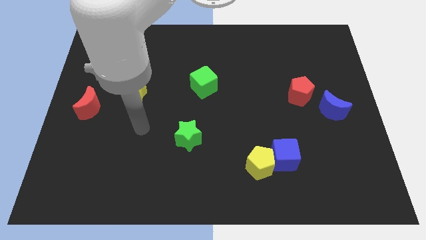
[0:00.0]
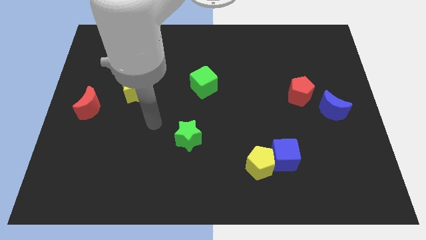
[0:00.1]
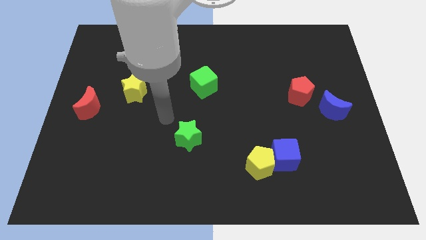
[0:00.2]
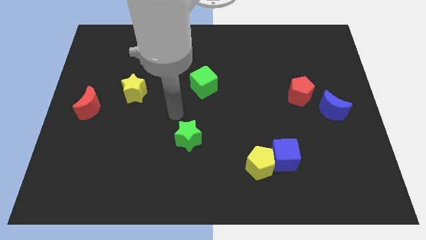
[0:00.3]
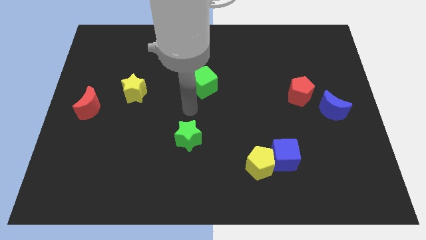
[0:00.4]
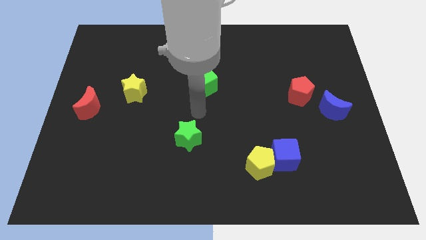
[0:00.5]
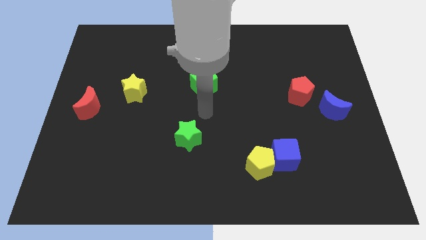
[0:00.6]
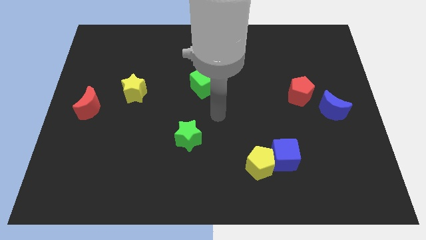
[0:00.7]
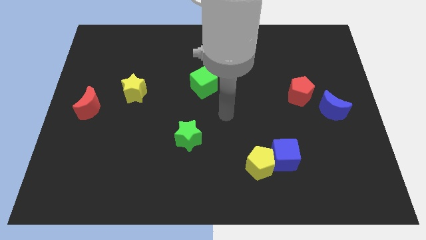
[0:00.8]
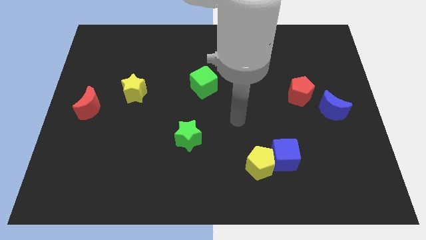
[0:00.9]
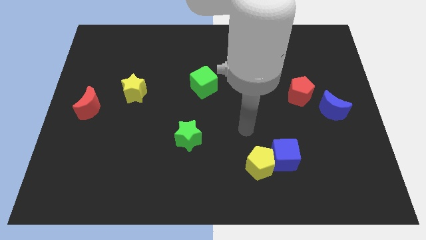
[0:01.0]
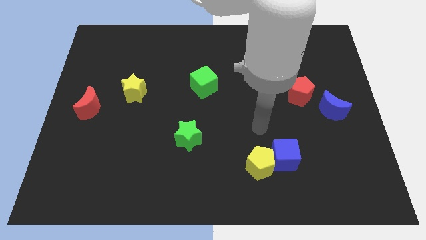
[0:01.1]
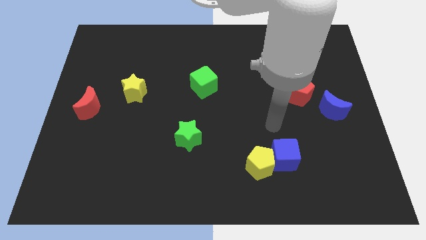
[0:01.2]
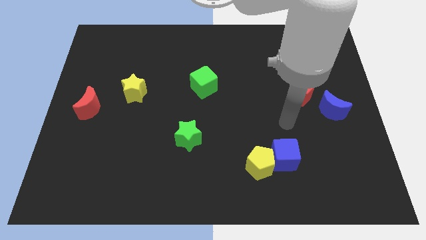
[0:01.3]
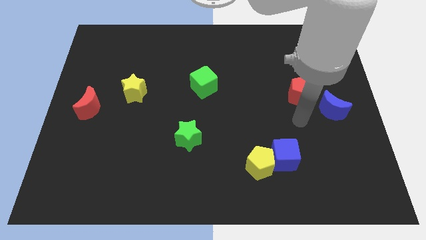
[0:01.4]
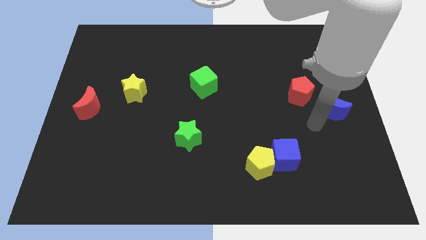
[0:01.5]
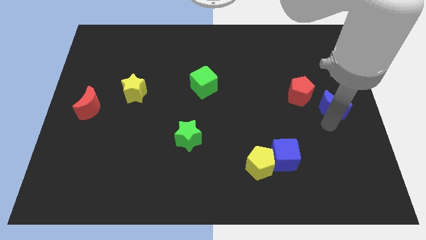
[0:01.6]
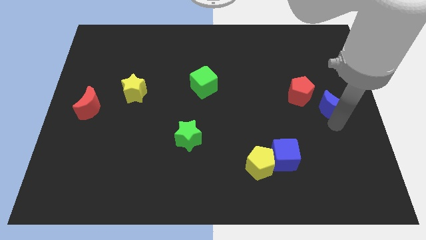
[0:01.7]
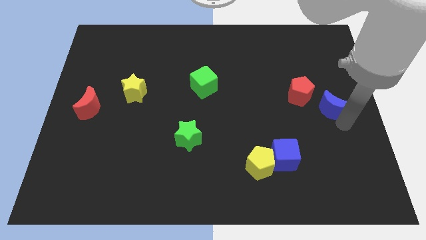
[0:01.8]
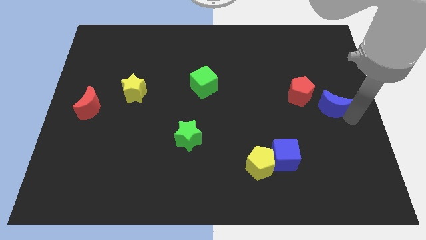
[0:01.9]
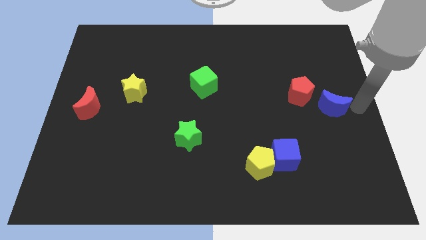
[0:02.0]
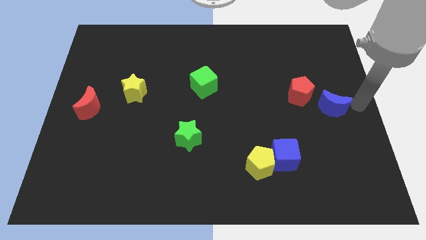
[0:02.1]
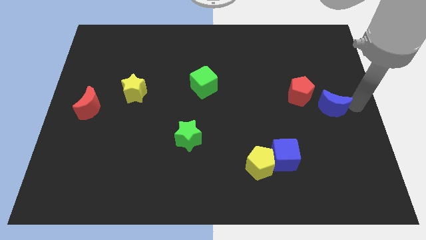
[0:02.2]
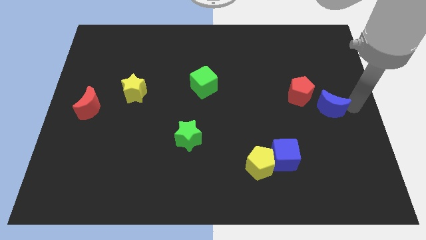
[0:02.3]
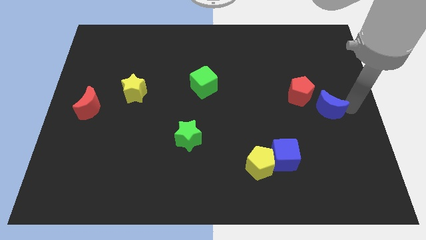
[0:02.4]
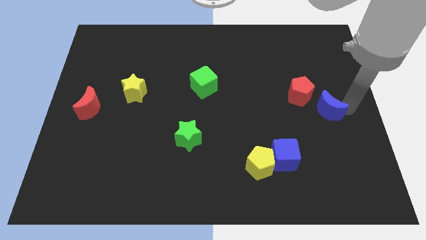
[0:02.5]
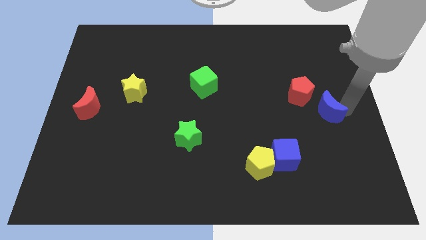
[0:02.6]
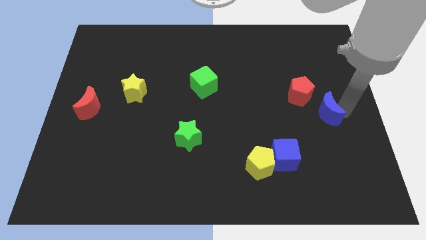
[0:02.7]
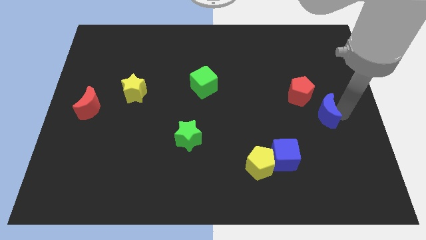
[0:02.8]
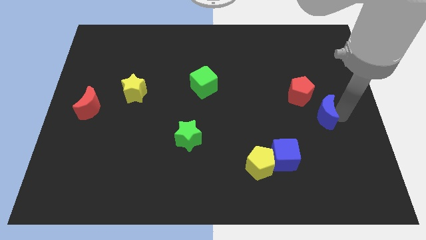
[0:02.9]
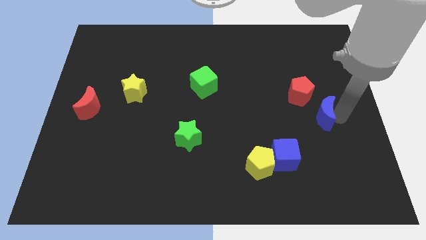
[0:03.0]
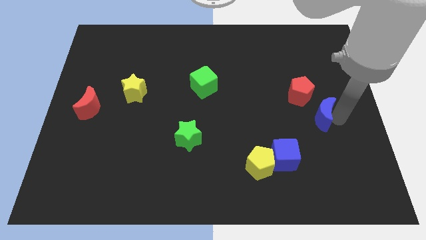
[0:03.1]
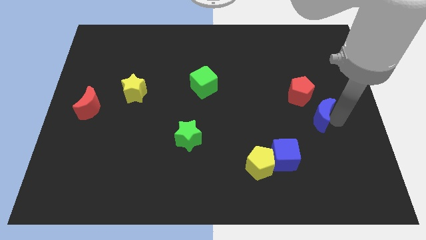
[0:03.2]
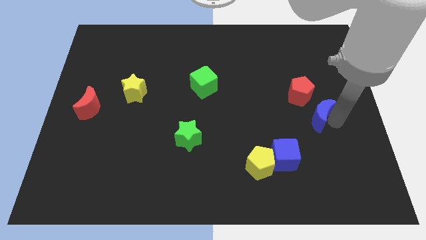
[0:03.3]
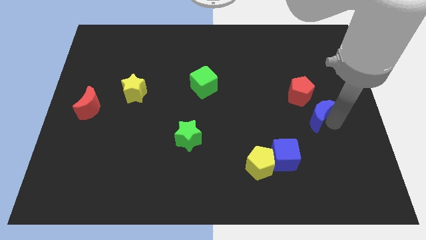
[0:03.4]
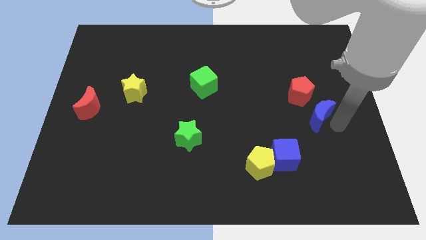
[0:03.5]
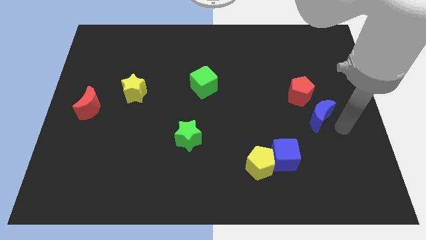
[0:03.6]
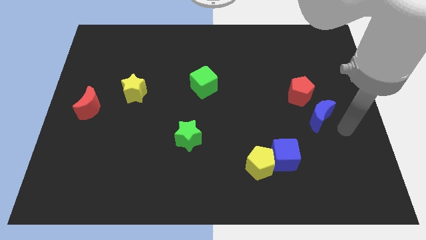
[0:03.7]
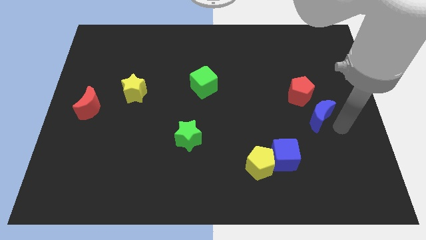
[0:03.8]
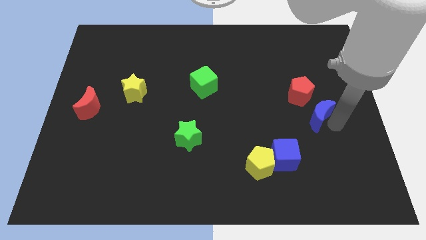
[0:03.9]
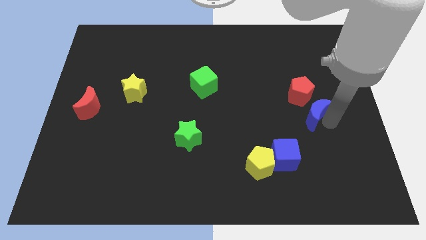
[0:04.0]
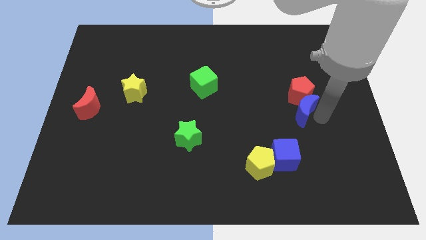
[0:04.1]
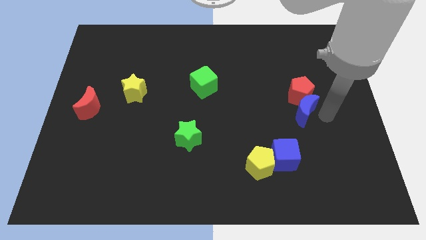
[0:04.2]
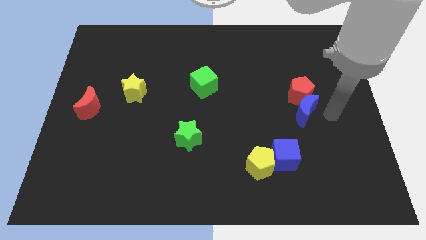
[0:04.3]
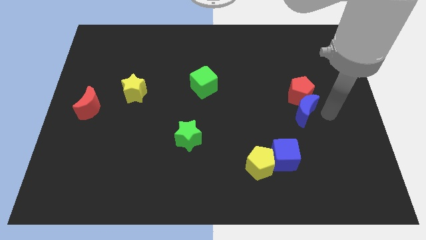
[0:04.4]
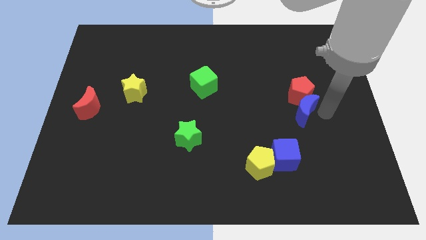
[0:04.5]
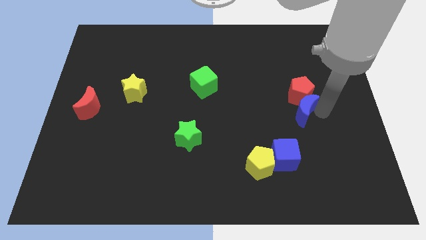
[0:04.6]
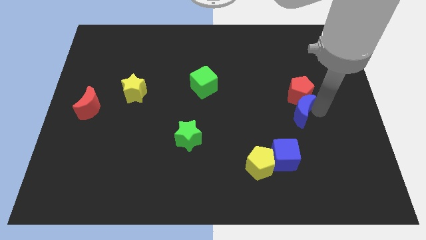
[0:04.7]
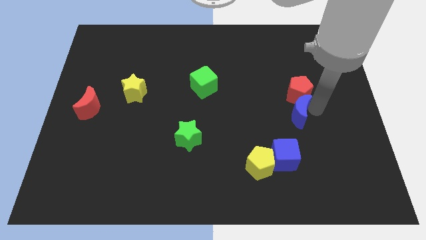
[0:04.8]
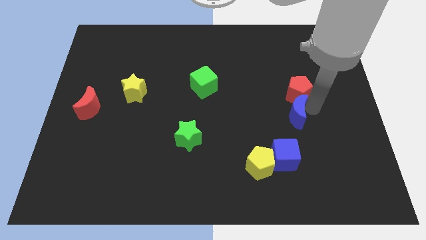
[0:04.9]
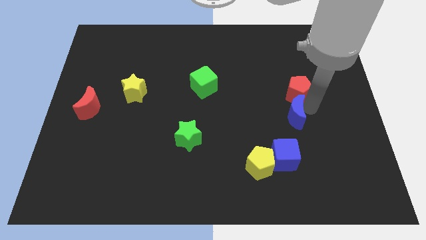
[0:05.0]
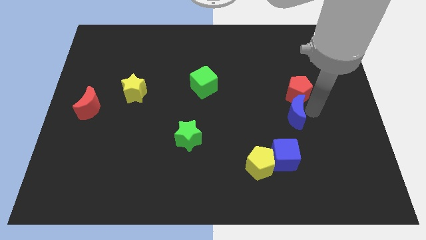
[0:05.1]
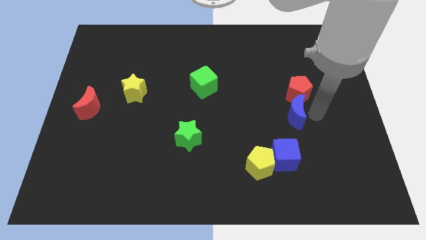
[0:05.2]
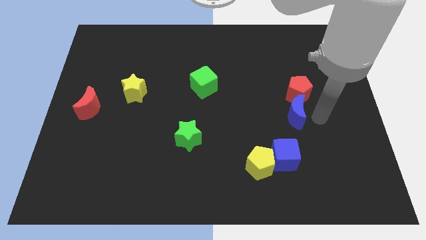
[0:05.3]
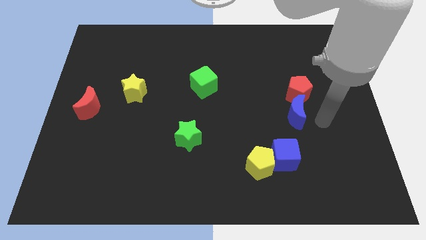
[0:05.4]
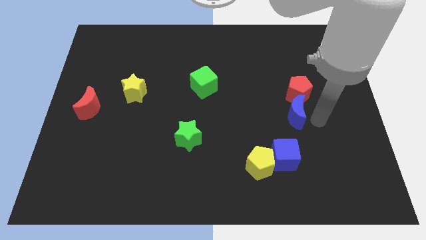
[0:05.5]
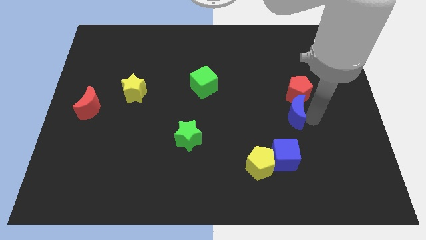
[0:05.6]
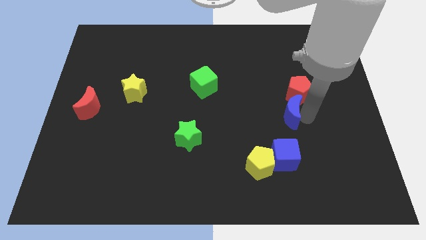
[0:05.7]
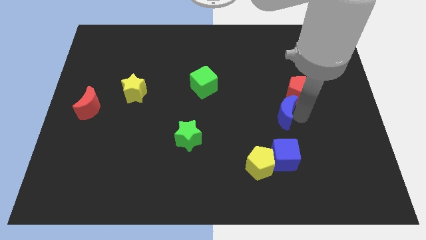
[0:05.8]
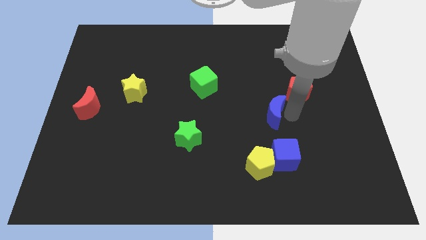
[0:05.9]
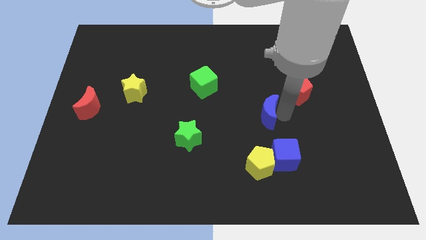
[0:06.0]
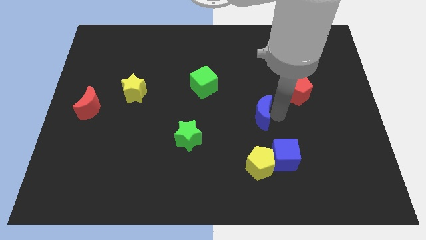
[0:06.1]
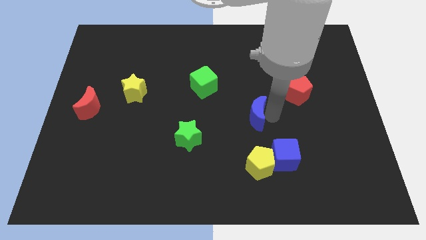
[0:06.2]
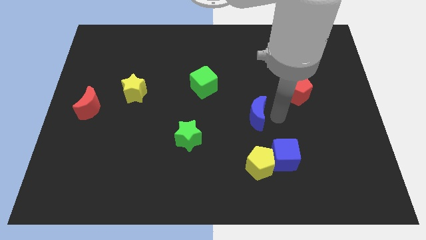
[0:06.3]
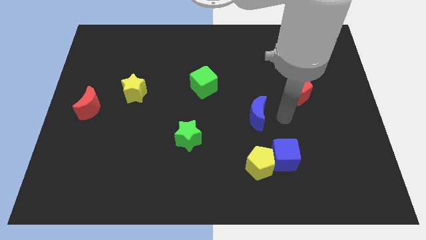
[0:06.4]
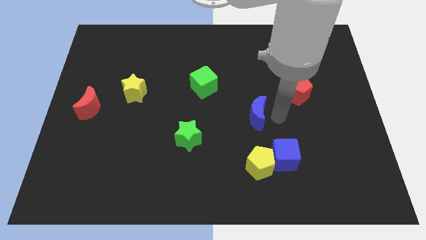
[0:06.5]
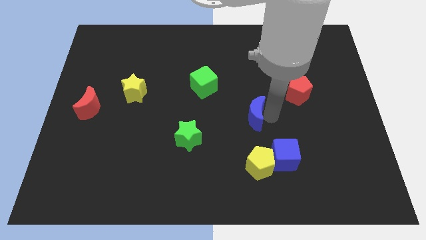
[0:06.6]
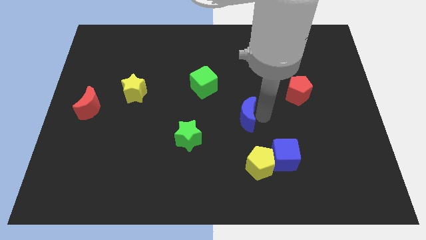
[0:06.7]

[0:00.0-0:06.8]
move the blue moon left

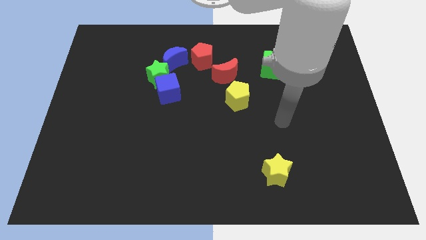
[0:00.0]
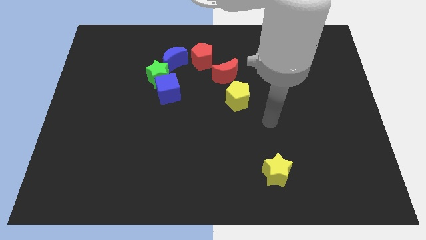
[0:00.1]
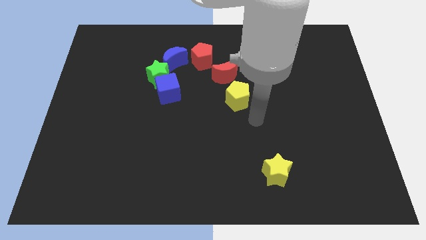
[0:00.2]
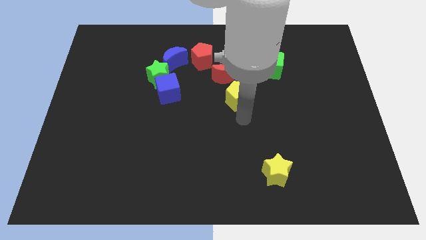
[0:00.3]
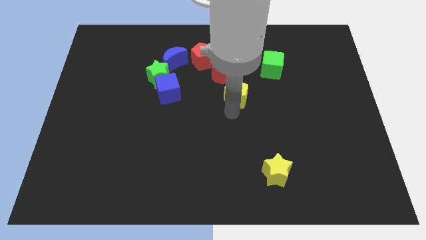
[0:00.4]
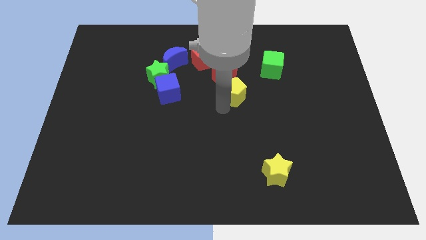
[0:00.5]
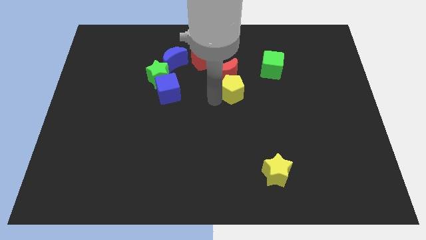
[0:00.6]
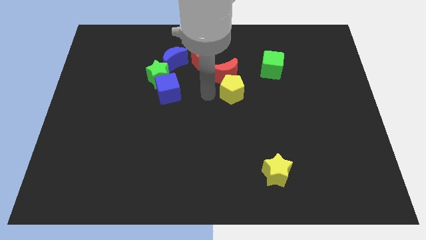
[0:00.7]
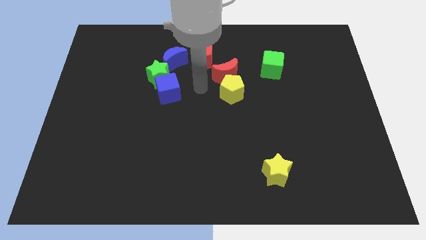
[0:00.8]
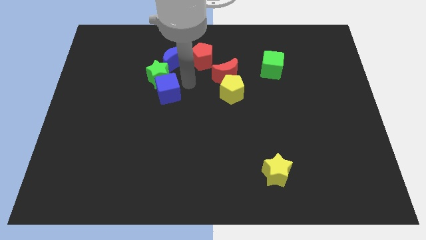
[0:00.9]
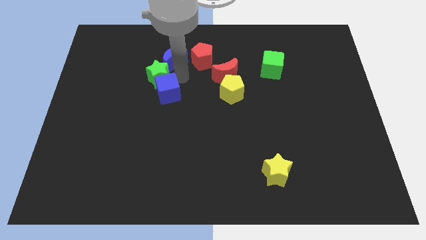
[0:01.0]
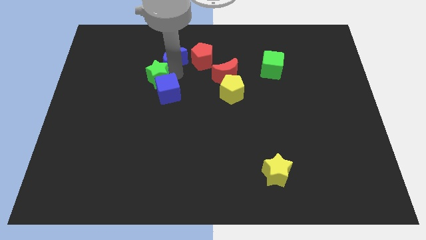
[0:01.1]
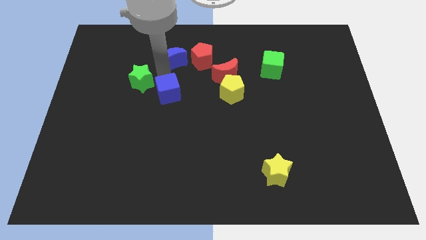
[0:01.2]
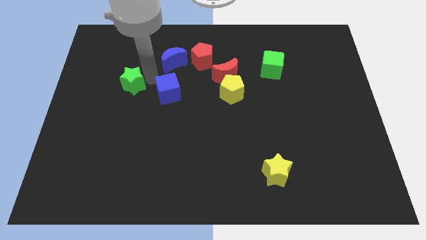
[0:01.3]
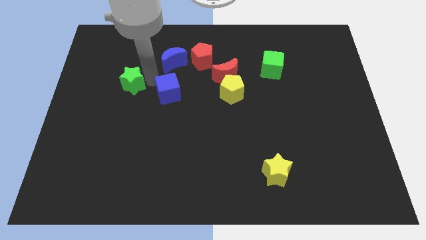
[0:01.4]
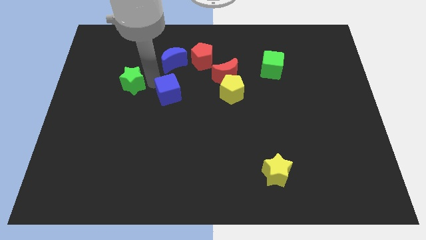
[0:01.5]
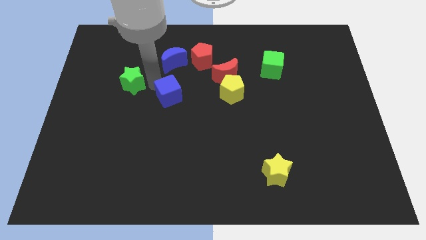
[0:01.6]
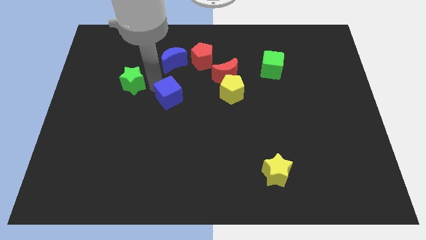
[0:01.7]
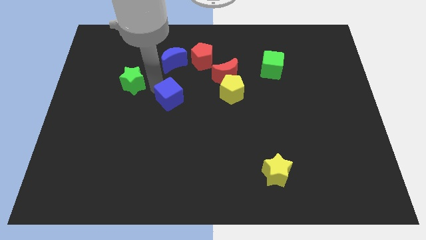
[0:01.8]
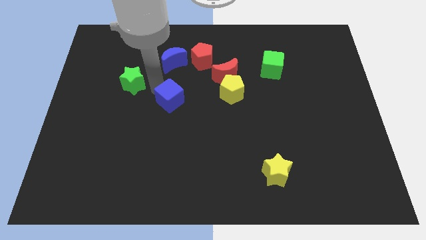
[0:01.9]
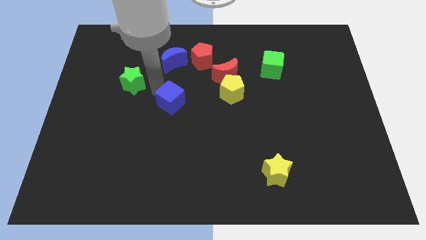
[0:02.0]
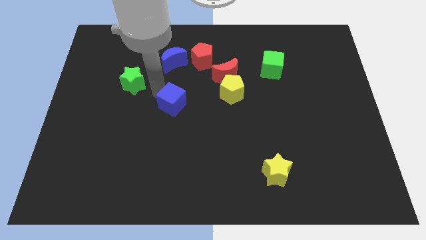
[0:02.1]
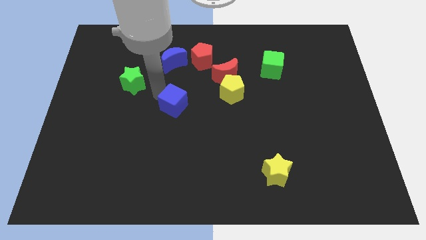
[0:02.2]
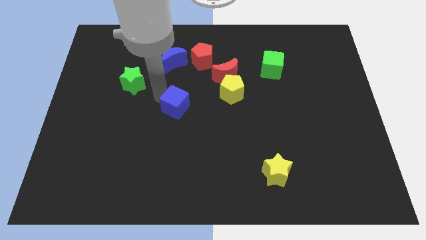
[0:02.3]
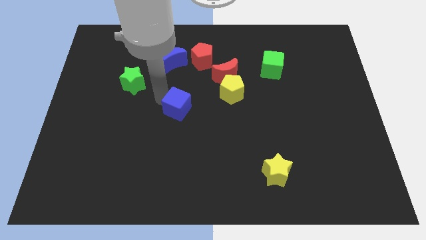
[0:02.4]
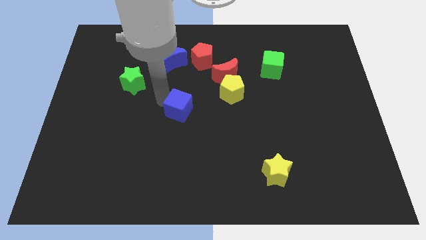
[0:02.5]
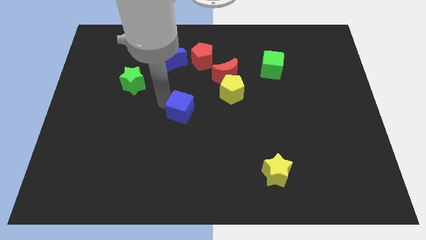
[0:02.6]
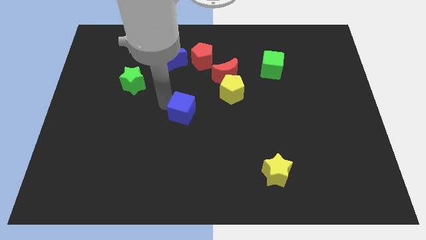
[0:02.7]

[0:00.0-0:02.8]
slightly slide the blue cube down and right
